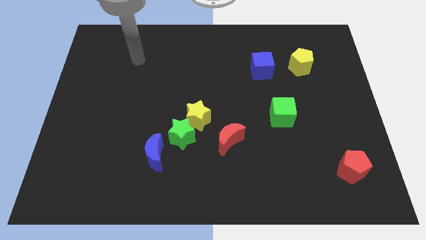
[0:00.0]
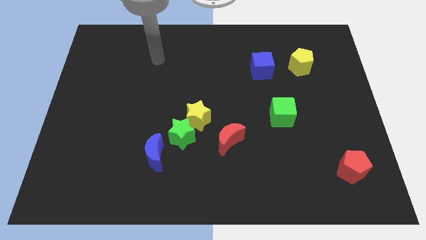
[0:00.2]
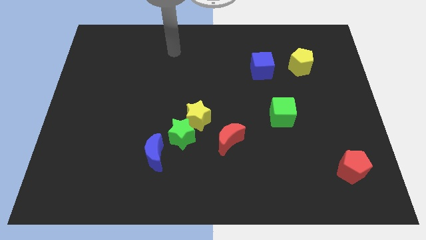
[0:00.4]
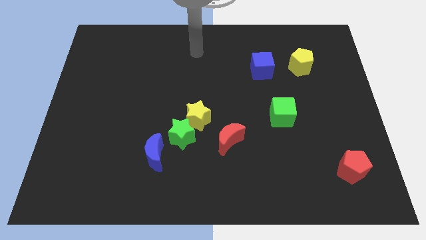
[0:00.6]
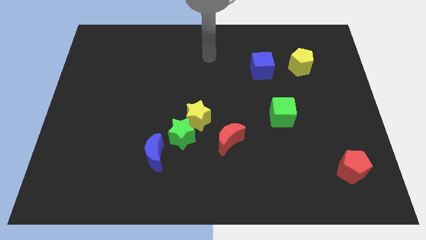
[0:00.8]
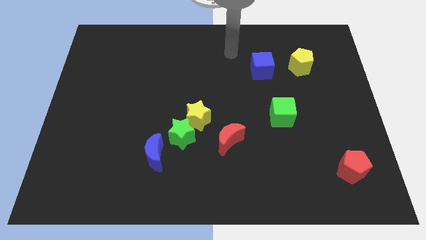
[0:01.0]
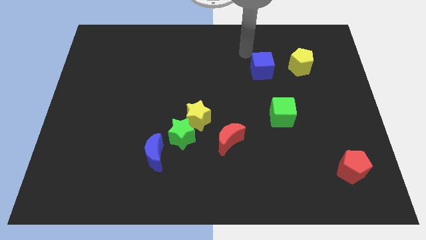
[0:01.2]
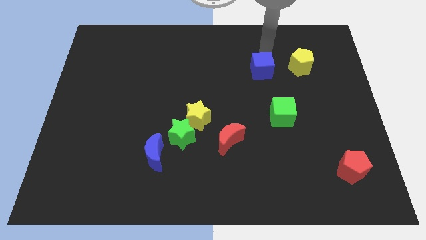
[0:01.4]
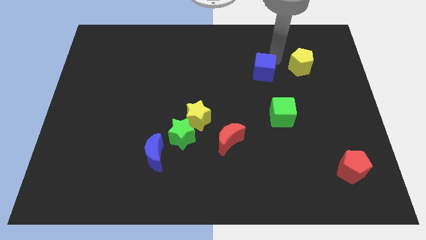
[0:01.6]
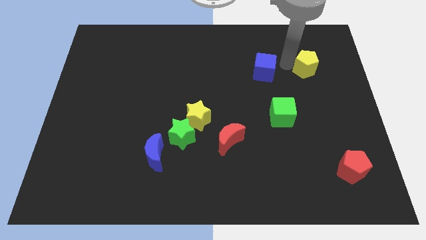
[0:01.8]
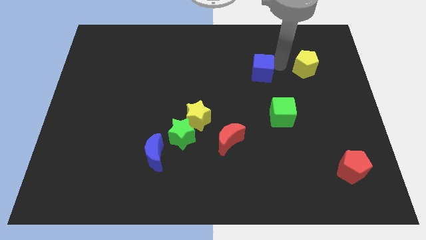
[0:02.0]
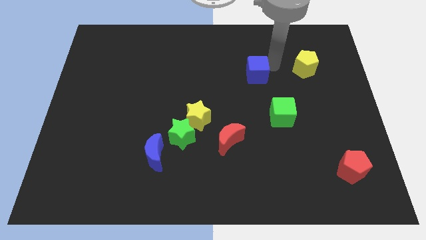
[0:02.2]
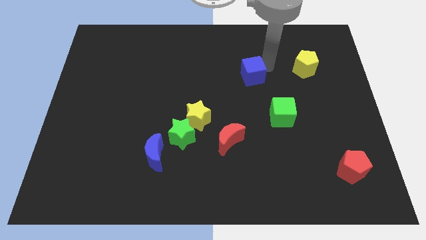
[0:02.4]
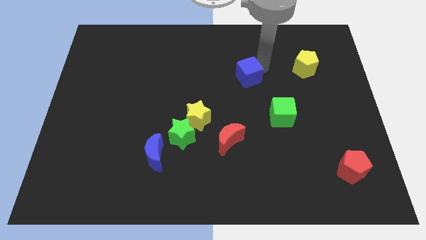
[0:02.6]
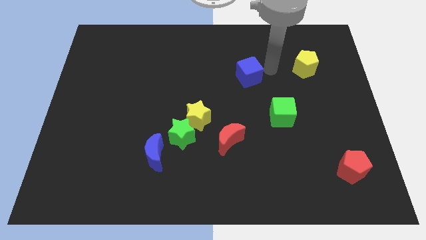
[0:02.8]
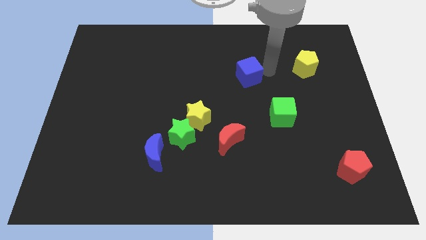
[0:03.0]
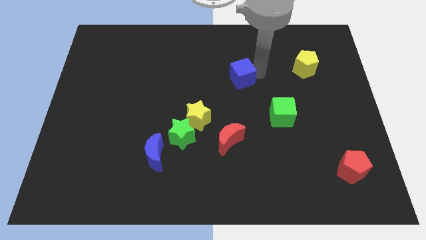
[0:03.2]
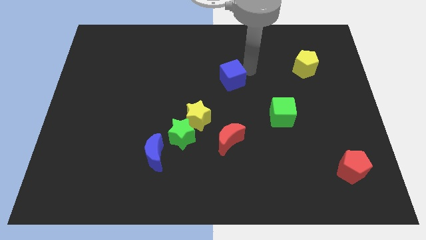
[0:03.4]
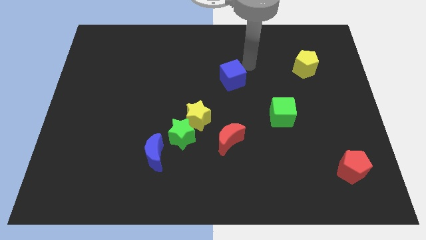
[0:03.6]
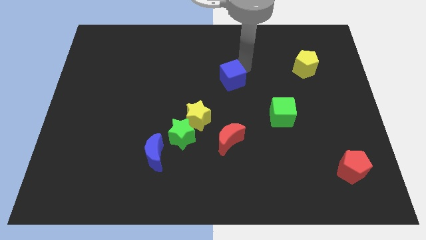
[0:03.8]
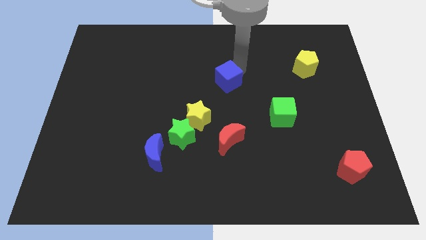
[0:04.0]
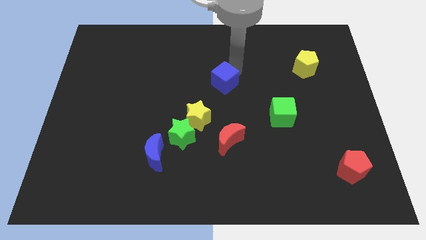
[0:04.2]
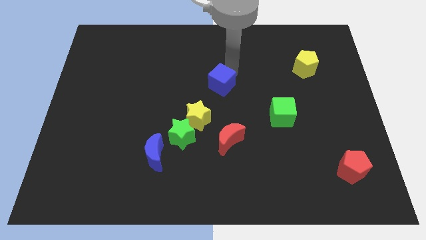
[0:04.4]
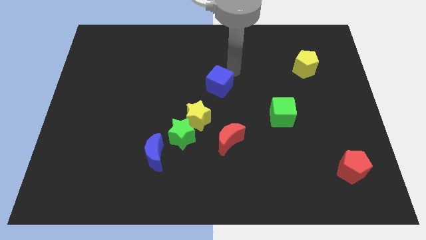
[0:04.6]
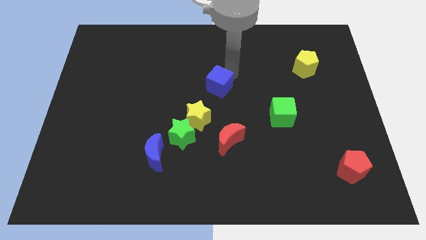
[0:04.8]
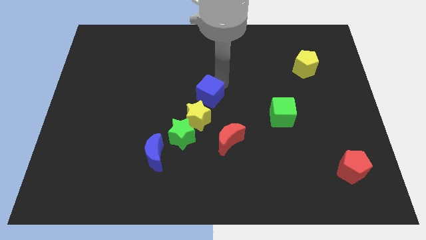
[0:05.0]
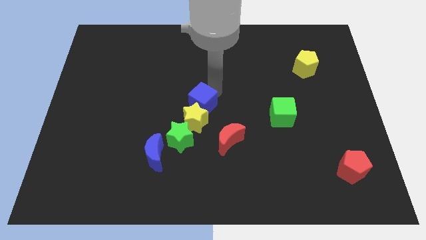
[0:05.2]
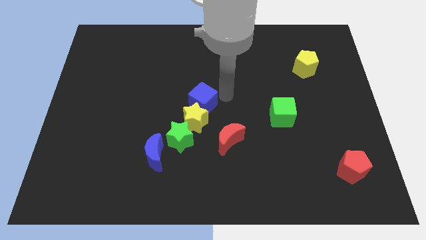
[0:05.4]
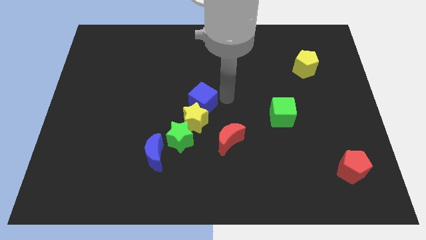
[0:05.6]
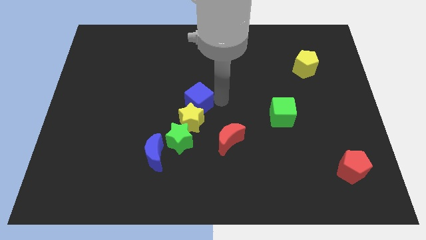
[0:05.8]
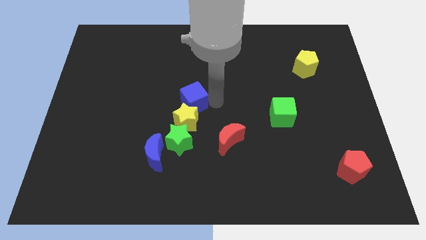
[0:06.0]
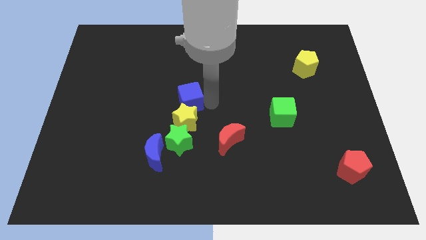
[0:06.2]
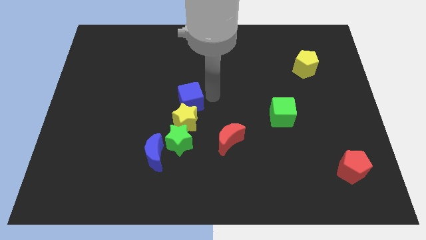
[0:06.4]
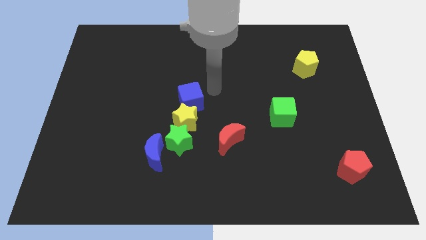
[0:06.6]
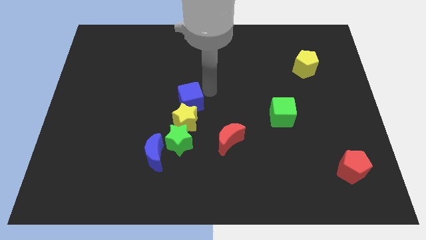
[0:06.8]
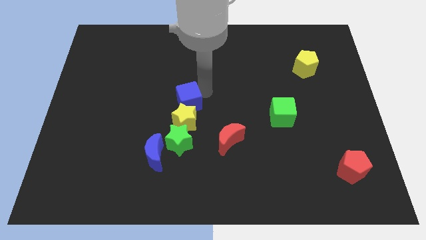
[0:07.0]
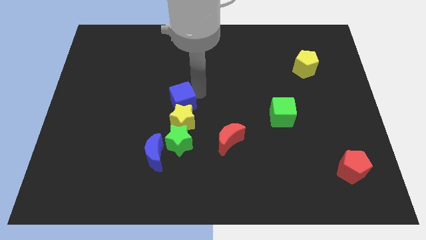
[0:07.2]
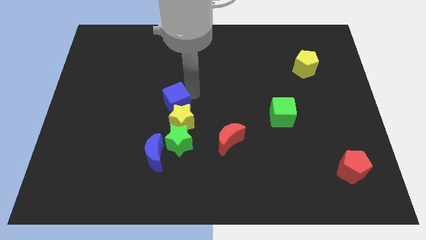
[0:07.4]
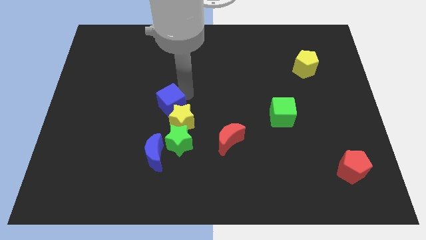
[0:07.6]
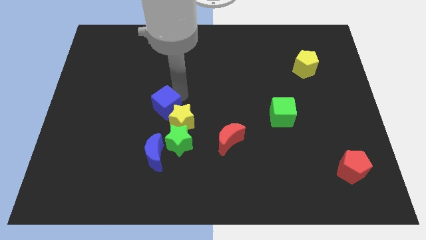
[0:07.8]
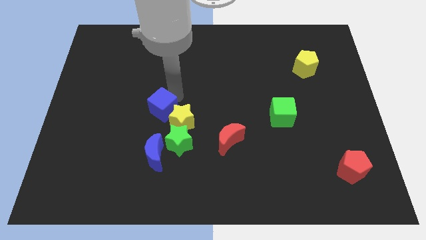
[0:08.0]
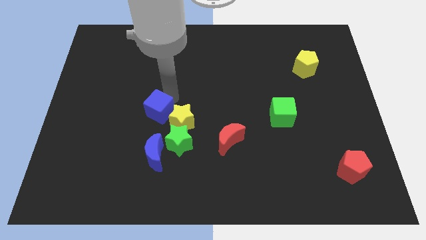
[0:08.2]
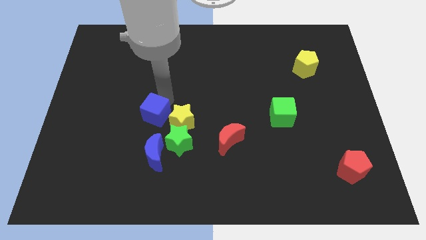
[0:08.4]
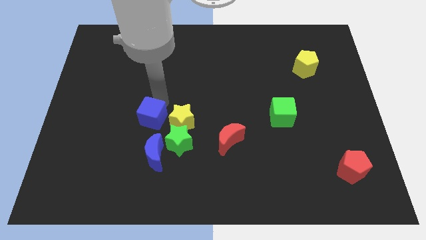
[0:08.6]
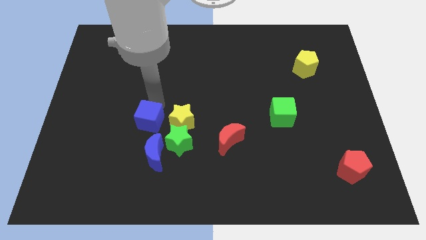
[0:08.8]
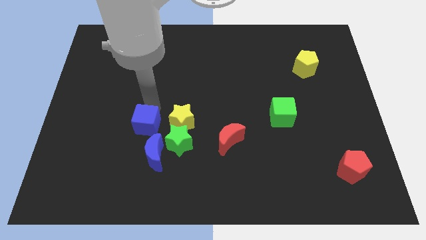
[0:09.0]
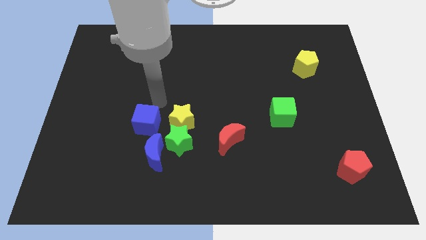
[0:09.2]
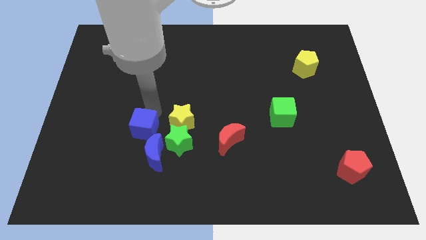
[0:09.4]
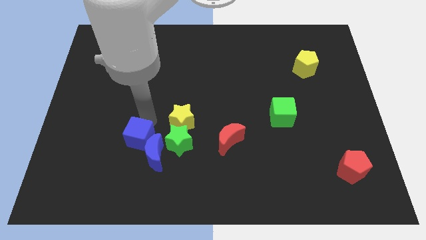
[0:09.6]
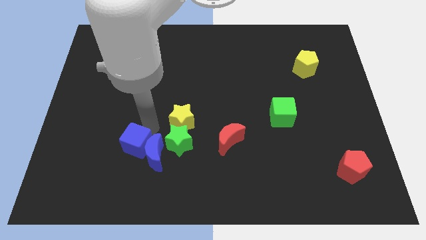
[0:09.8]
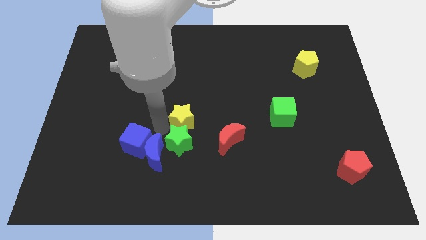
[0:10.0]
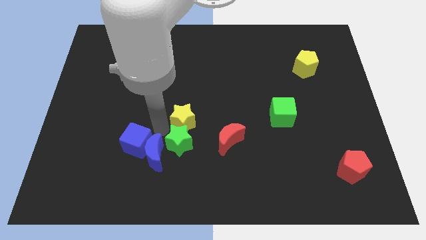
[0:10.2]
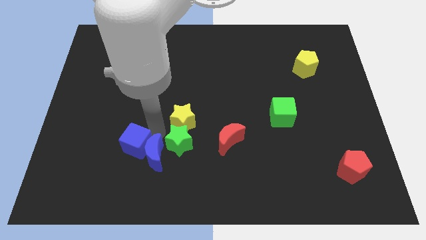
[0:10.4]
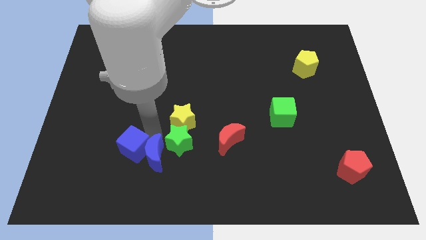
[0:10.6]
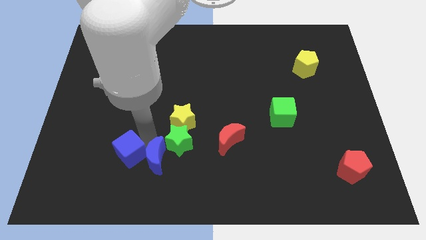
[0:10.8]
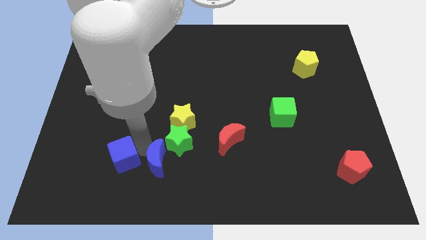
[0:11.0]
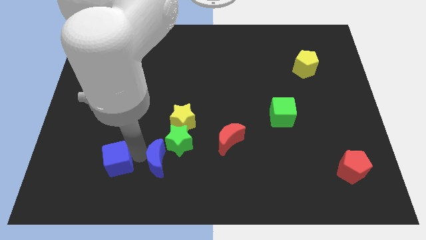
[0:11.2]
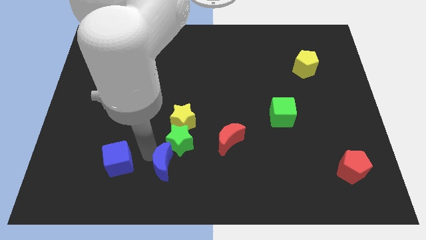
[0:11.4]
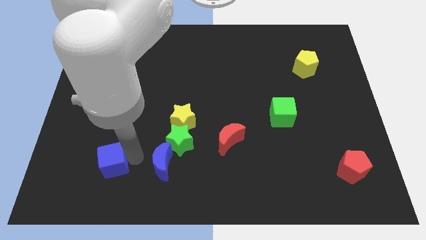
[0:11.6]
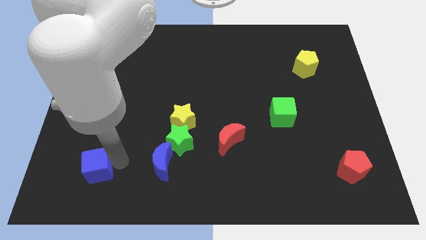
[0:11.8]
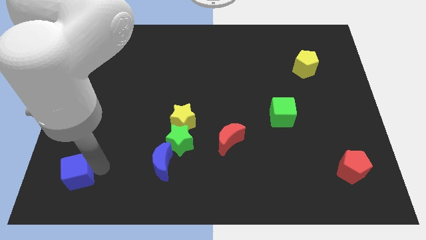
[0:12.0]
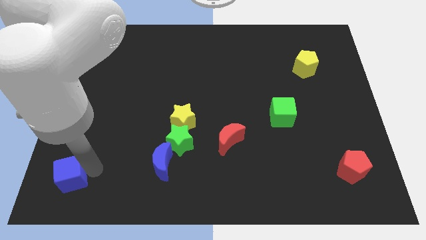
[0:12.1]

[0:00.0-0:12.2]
put the blue cube to the bottom left of the board
